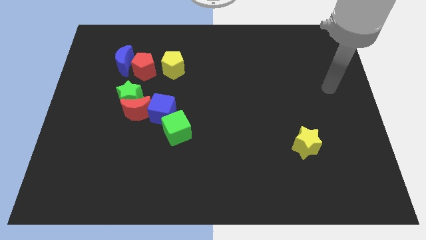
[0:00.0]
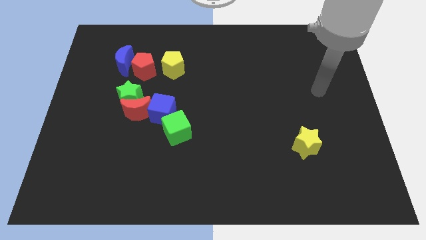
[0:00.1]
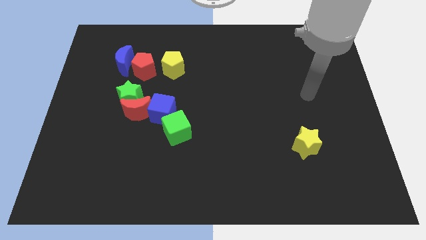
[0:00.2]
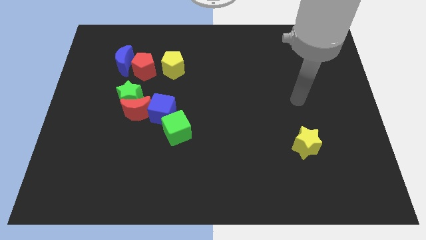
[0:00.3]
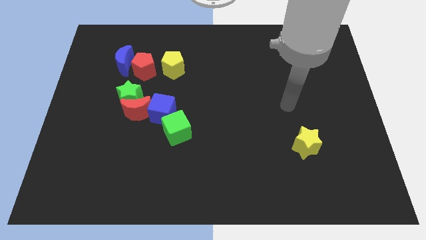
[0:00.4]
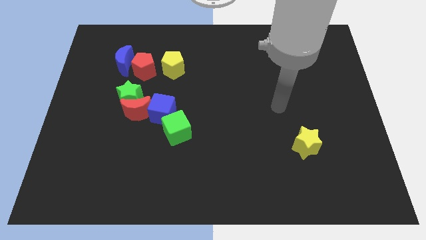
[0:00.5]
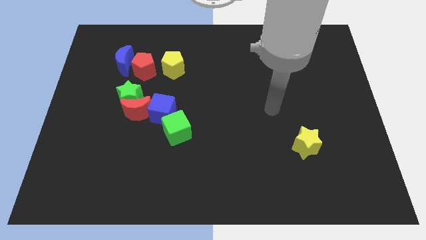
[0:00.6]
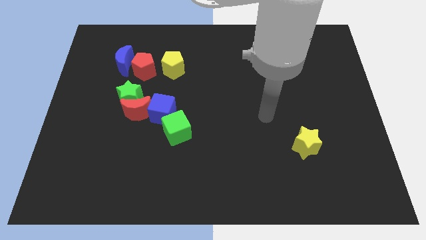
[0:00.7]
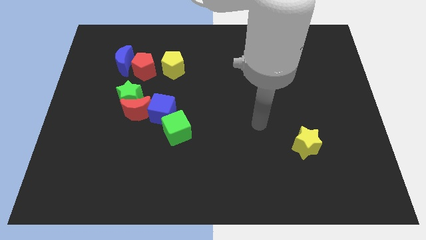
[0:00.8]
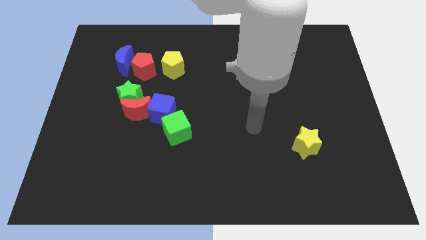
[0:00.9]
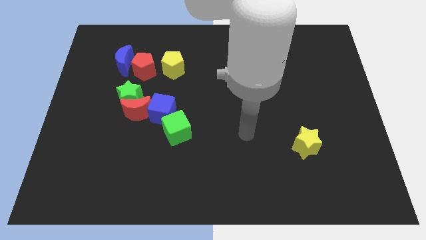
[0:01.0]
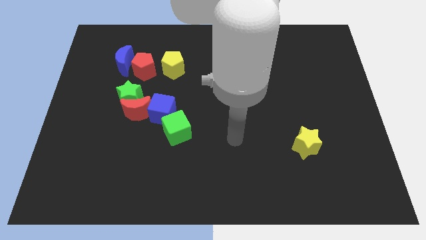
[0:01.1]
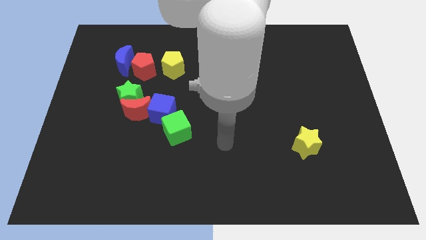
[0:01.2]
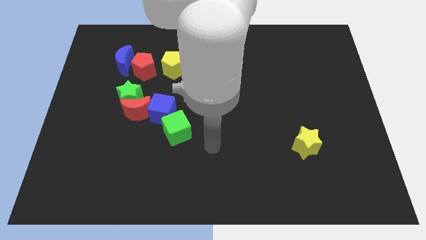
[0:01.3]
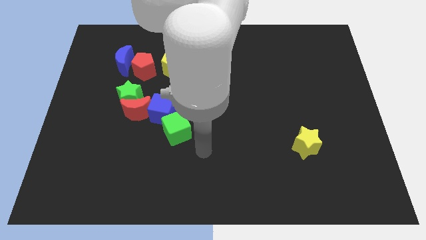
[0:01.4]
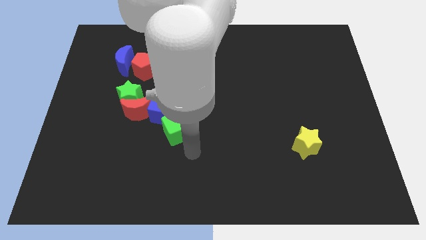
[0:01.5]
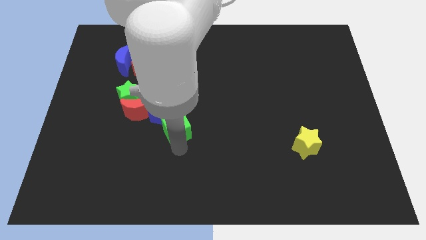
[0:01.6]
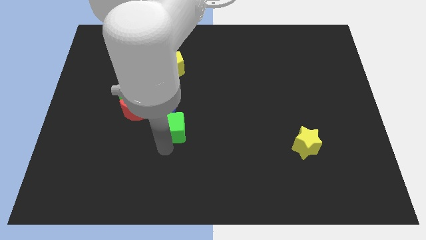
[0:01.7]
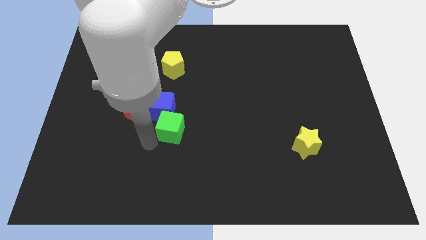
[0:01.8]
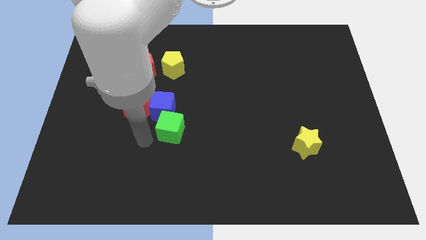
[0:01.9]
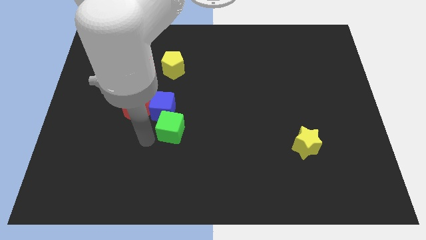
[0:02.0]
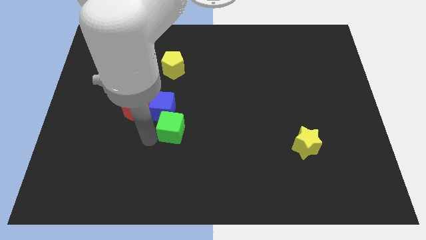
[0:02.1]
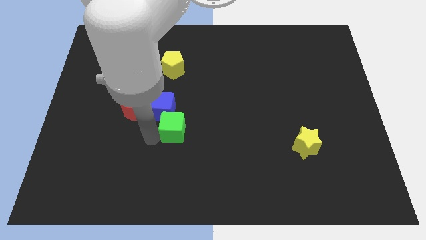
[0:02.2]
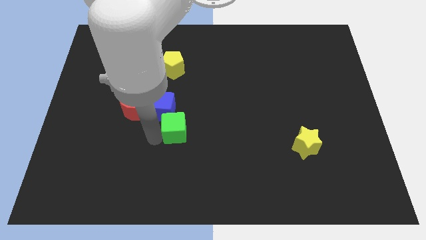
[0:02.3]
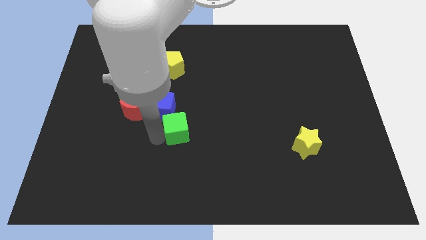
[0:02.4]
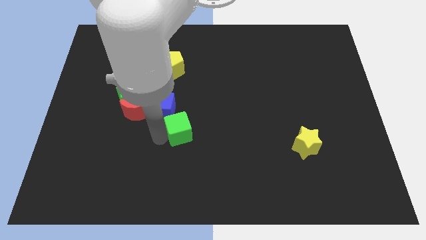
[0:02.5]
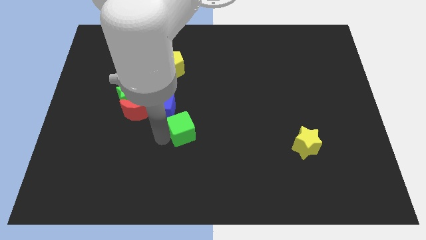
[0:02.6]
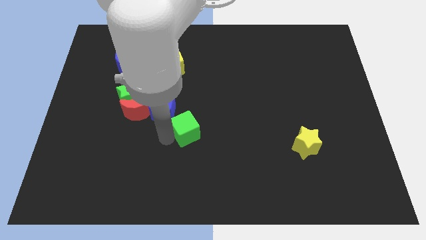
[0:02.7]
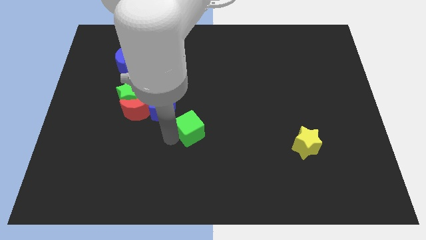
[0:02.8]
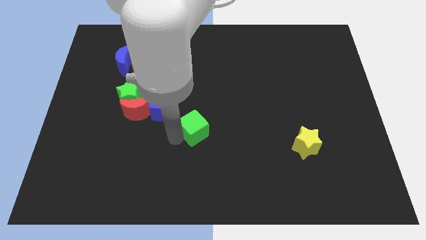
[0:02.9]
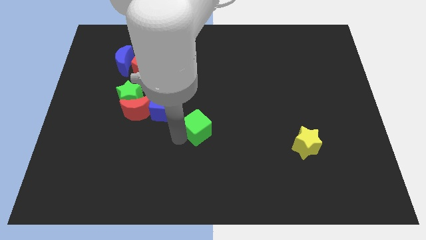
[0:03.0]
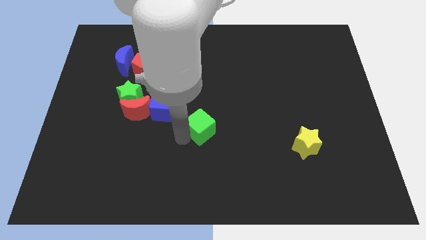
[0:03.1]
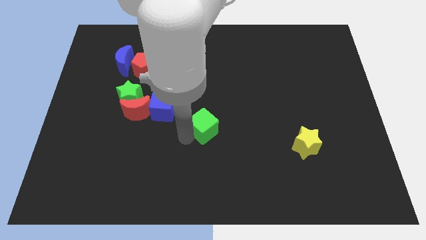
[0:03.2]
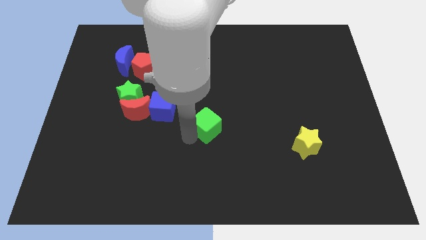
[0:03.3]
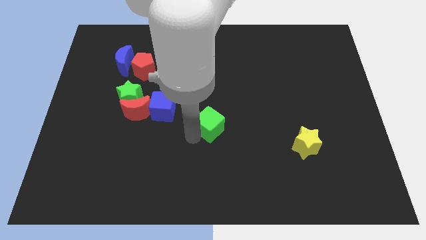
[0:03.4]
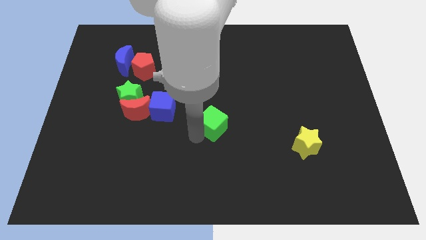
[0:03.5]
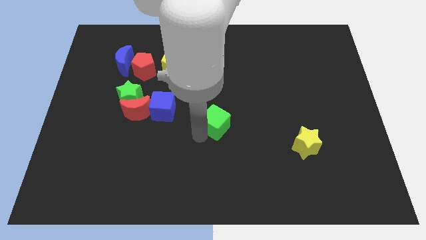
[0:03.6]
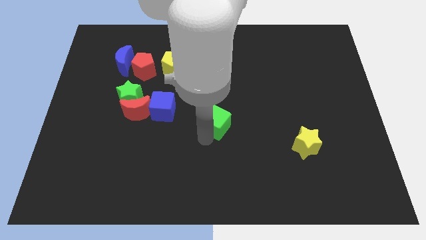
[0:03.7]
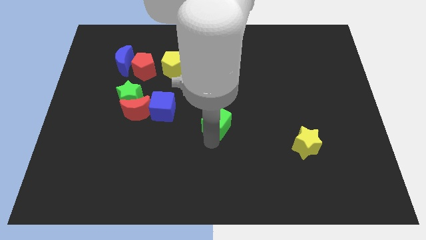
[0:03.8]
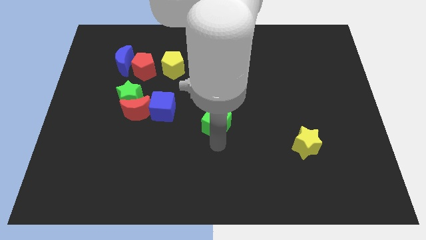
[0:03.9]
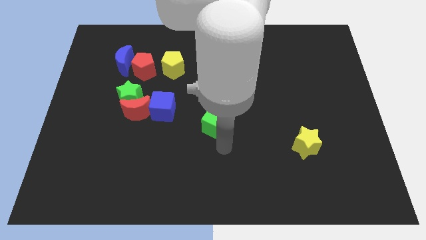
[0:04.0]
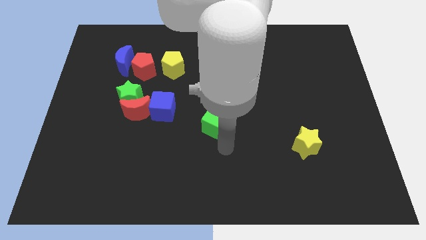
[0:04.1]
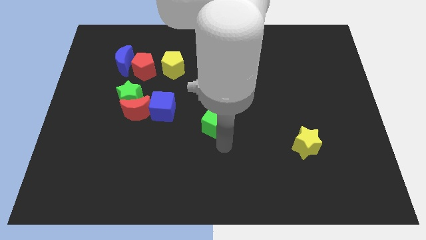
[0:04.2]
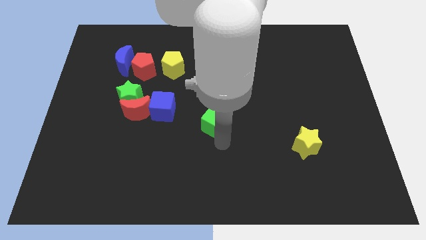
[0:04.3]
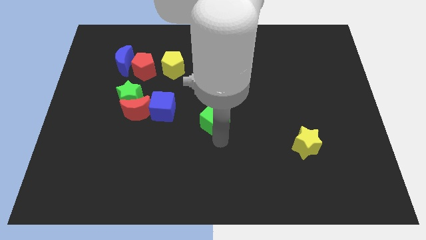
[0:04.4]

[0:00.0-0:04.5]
slightly move the green cube upwards and then to the right

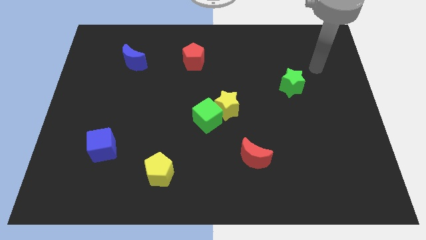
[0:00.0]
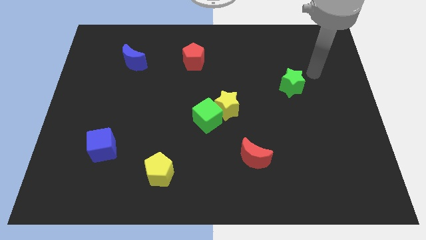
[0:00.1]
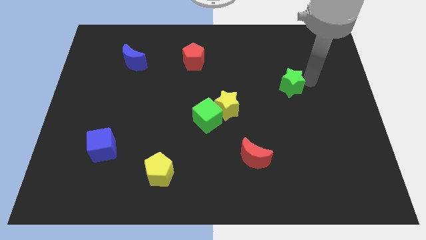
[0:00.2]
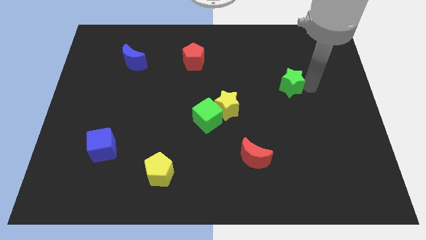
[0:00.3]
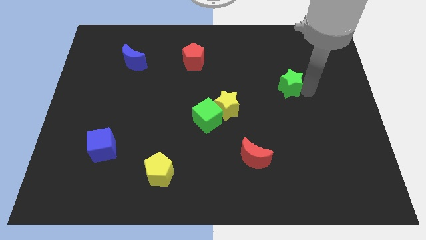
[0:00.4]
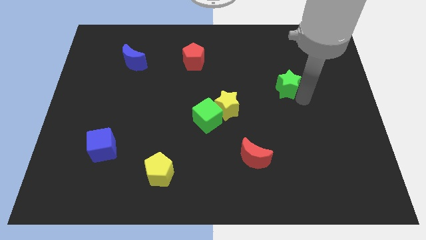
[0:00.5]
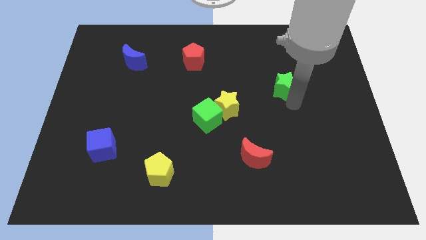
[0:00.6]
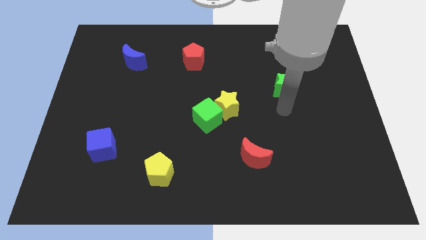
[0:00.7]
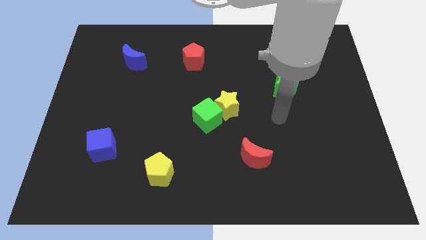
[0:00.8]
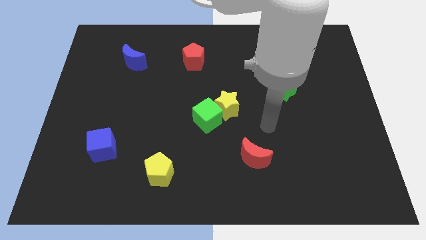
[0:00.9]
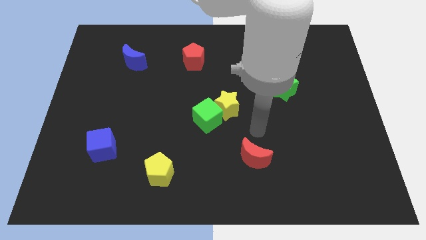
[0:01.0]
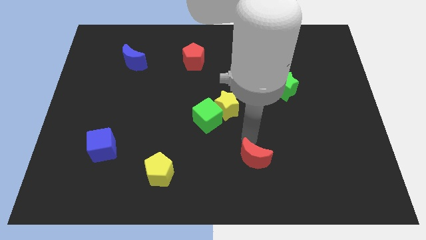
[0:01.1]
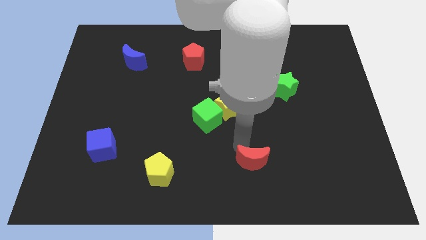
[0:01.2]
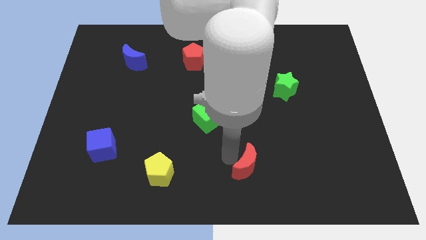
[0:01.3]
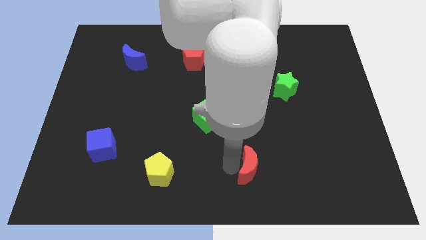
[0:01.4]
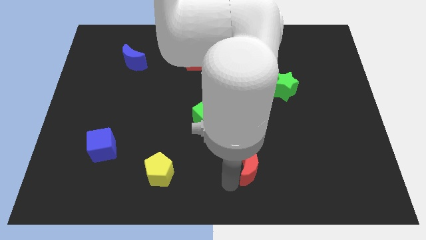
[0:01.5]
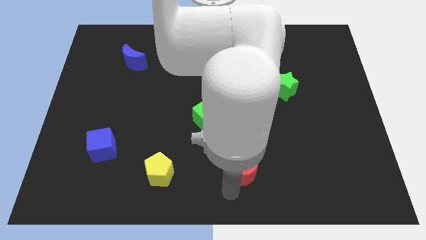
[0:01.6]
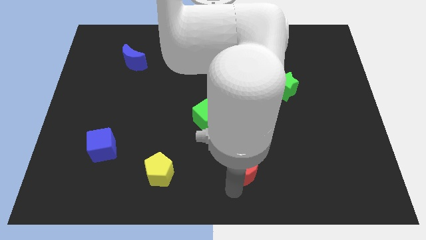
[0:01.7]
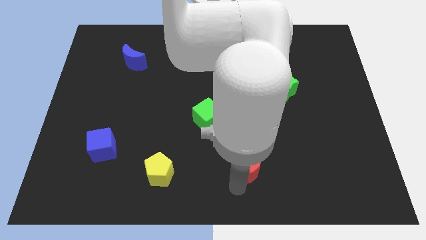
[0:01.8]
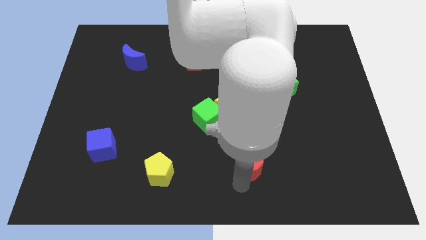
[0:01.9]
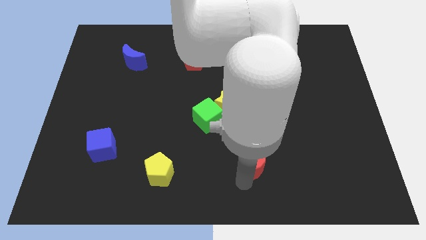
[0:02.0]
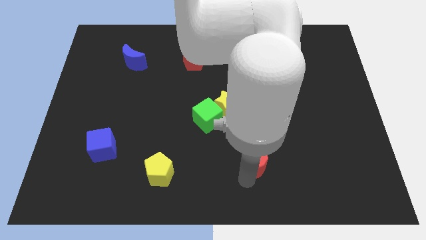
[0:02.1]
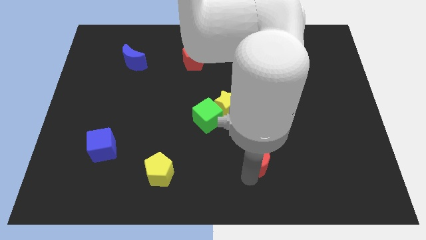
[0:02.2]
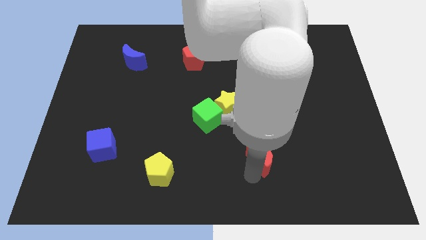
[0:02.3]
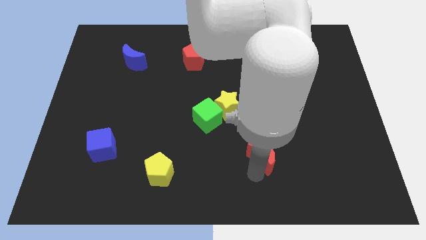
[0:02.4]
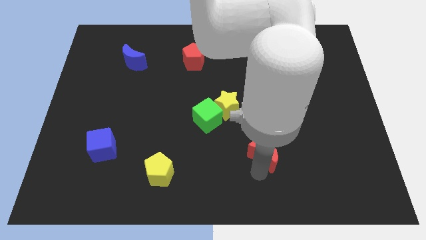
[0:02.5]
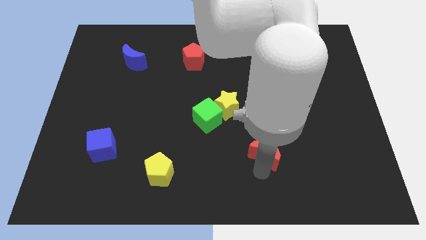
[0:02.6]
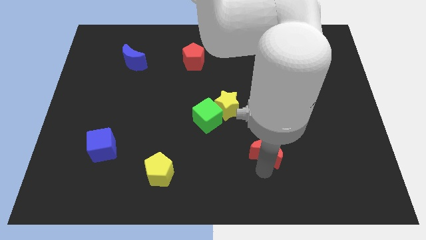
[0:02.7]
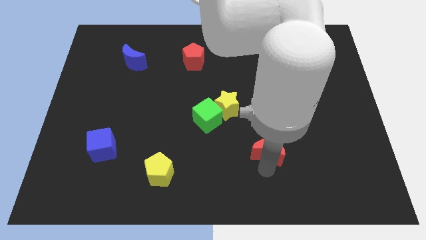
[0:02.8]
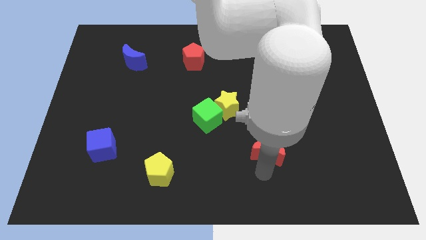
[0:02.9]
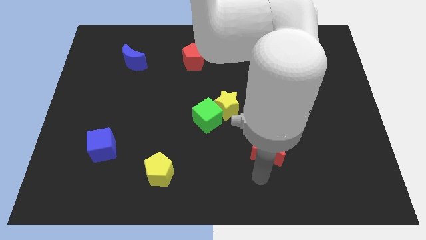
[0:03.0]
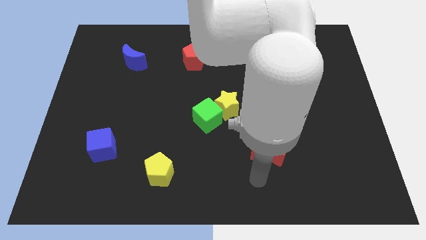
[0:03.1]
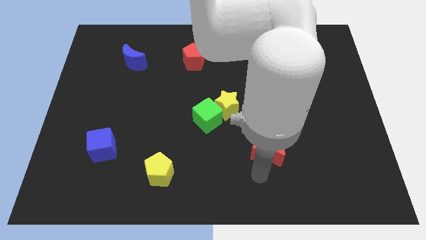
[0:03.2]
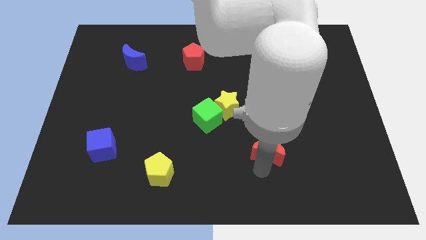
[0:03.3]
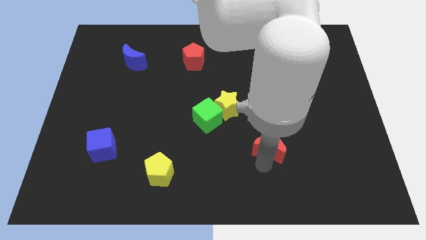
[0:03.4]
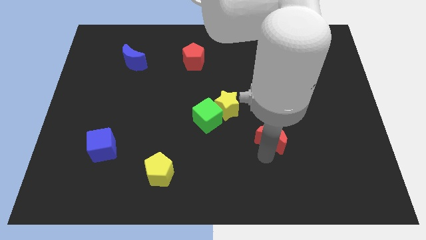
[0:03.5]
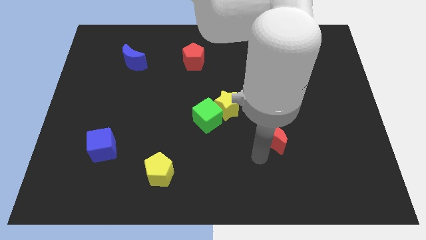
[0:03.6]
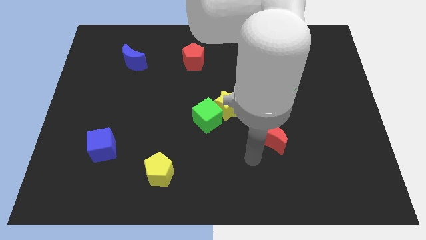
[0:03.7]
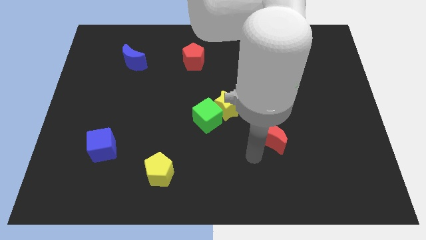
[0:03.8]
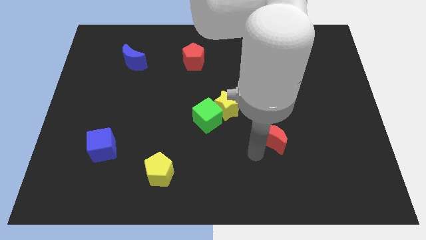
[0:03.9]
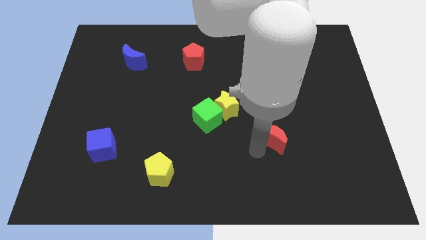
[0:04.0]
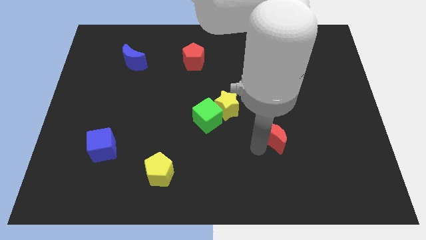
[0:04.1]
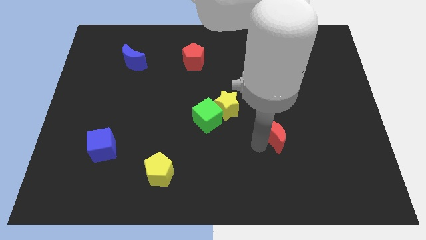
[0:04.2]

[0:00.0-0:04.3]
slide the red moon a little bit up and to the right
